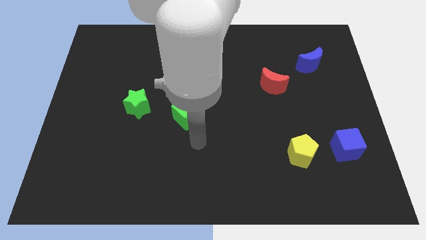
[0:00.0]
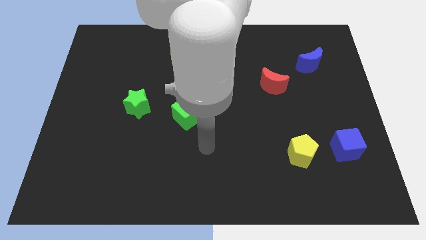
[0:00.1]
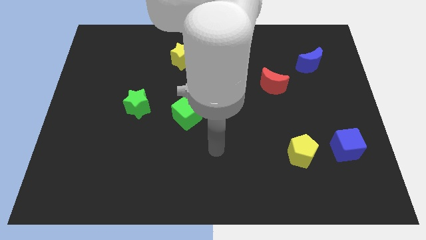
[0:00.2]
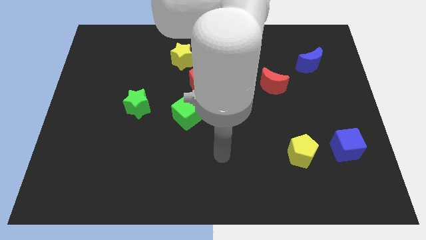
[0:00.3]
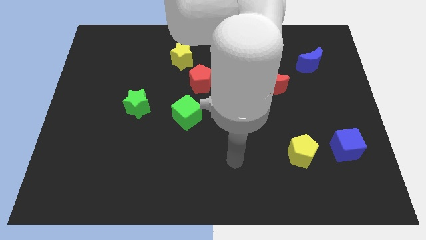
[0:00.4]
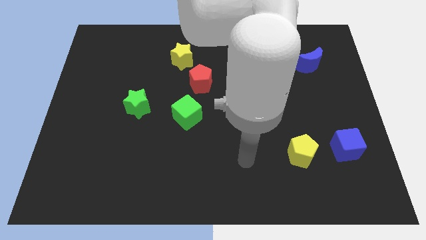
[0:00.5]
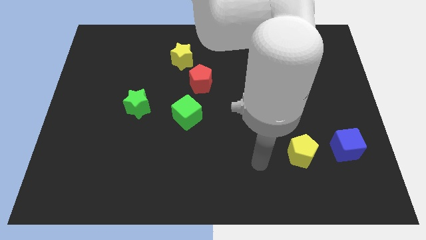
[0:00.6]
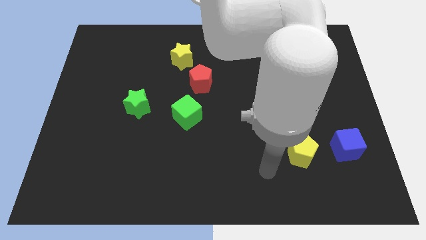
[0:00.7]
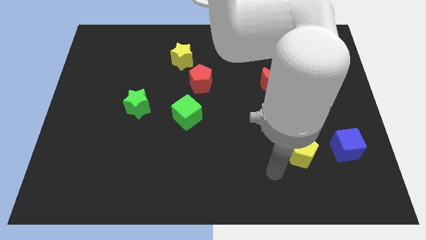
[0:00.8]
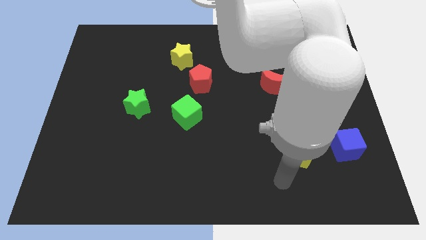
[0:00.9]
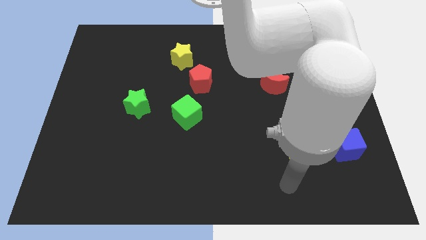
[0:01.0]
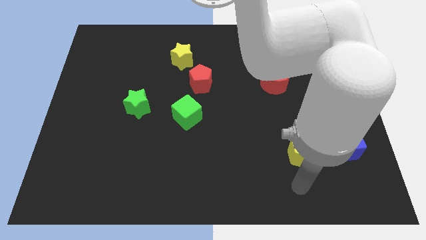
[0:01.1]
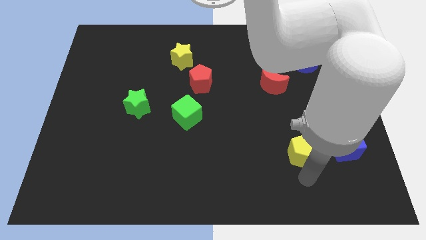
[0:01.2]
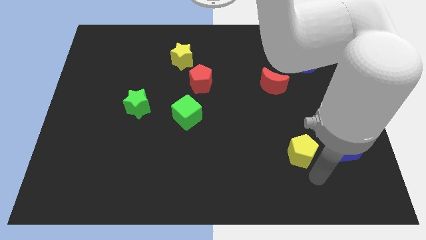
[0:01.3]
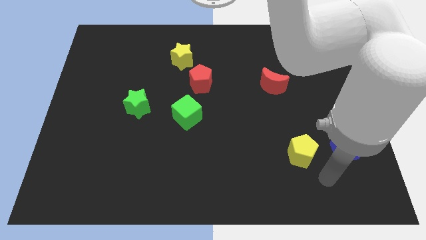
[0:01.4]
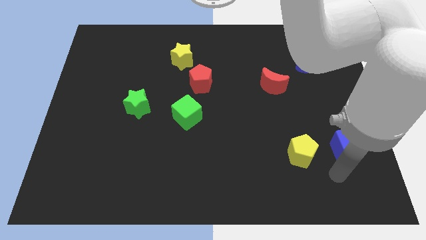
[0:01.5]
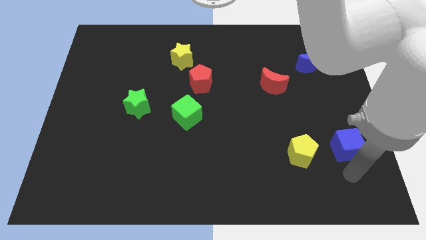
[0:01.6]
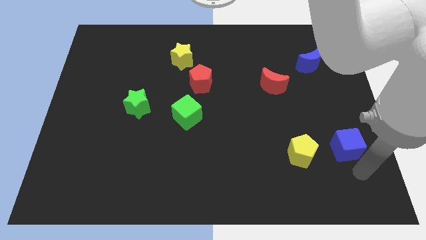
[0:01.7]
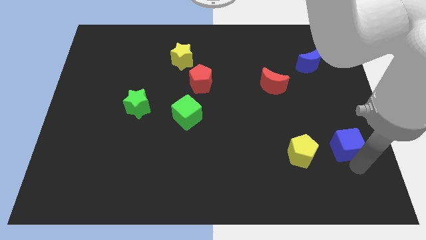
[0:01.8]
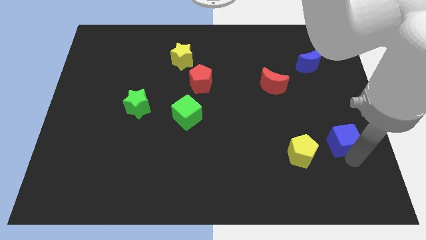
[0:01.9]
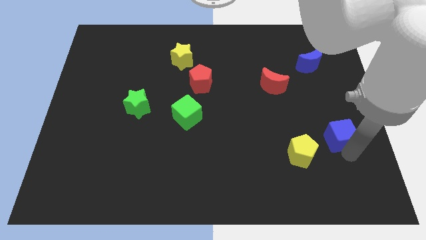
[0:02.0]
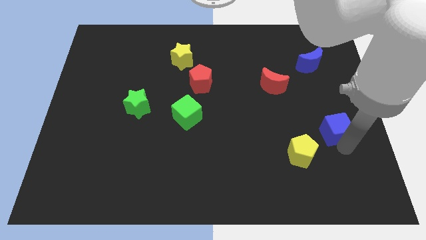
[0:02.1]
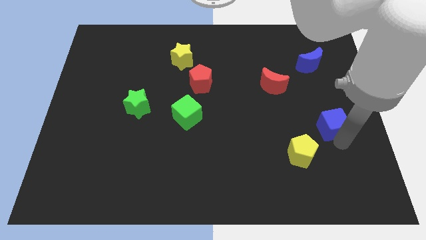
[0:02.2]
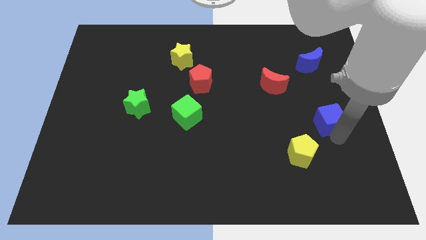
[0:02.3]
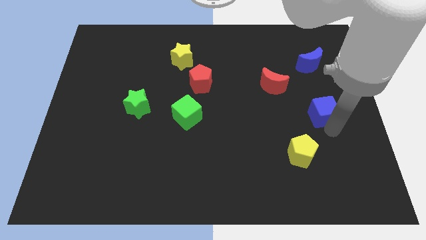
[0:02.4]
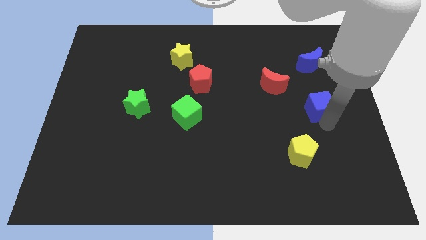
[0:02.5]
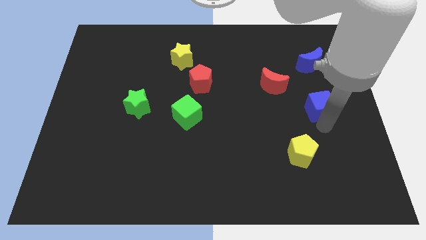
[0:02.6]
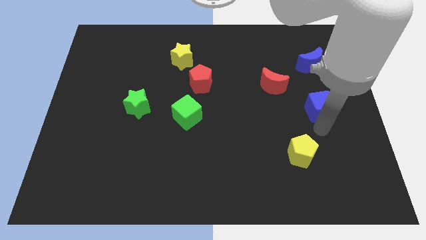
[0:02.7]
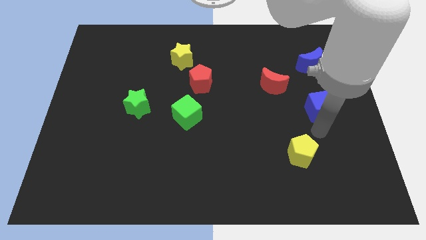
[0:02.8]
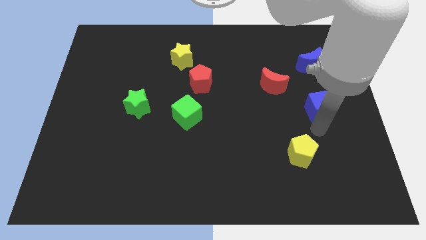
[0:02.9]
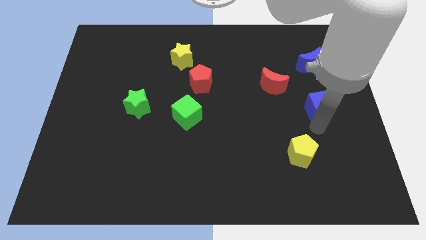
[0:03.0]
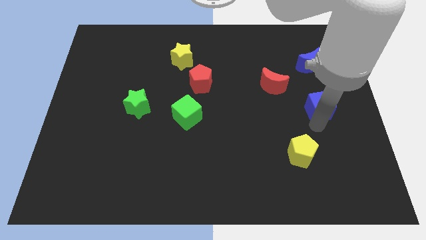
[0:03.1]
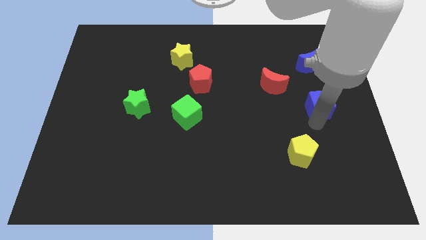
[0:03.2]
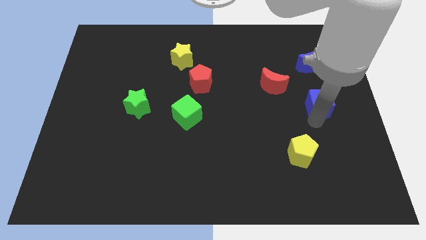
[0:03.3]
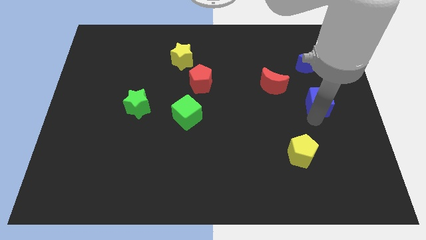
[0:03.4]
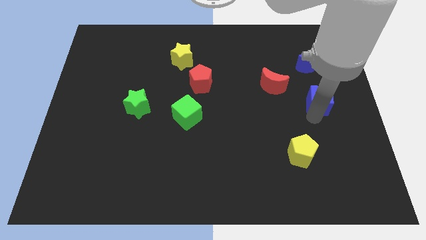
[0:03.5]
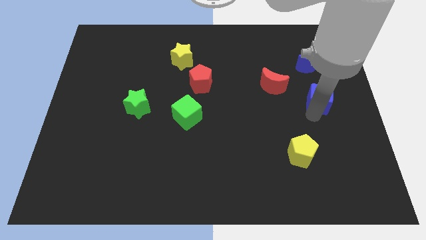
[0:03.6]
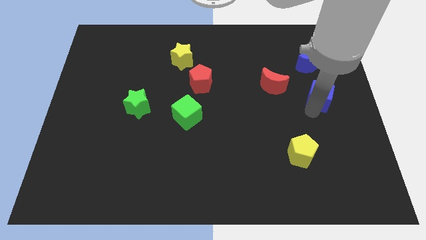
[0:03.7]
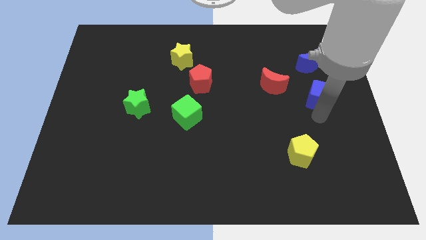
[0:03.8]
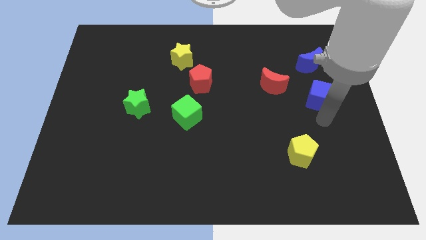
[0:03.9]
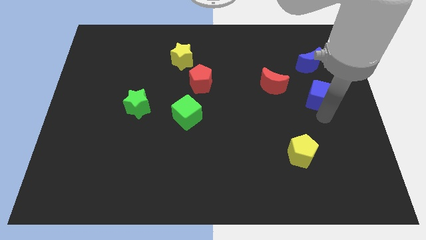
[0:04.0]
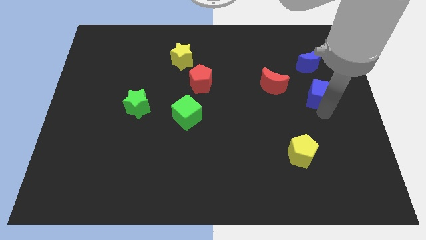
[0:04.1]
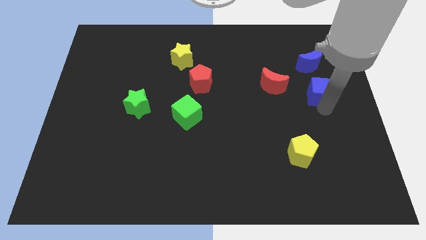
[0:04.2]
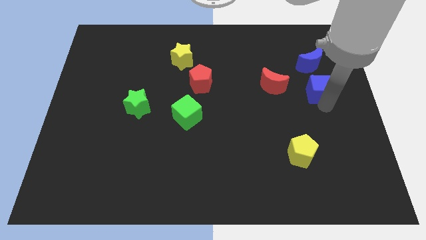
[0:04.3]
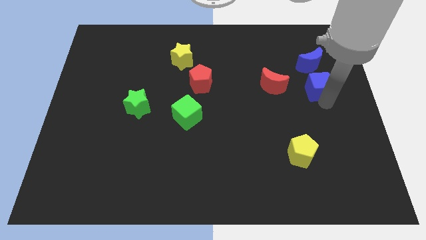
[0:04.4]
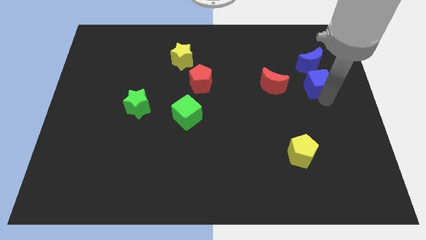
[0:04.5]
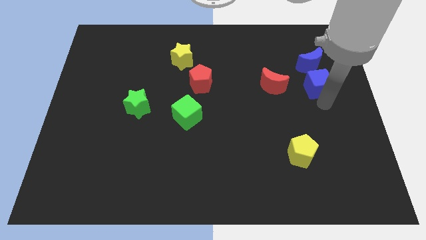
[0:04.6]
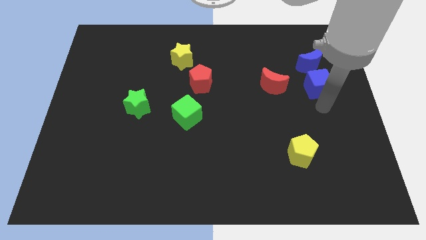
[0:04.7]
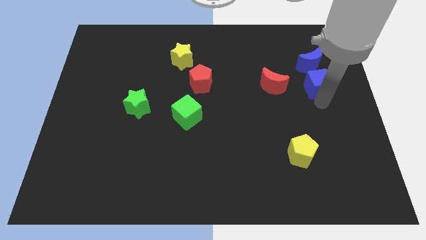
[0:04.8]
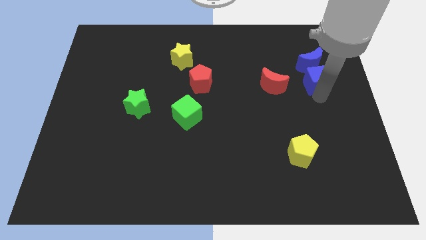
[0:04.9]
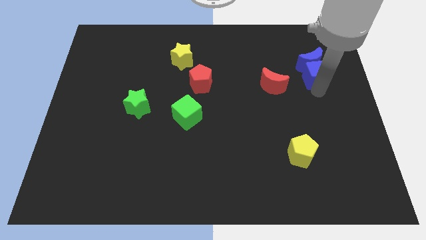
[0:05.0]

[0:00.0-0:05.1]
move the blue cube towards the blue moon

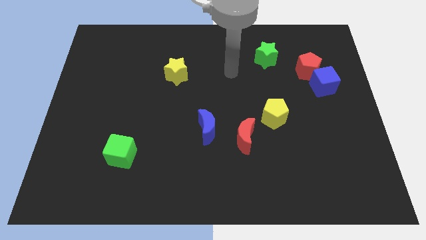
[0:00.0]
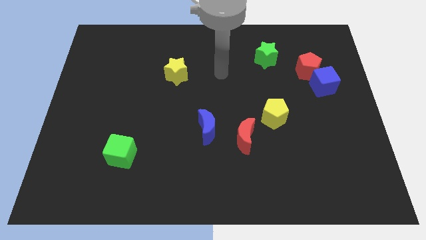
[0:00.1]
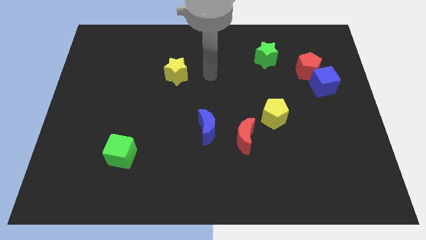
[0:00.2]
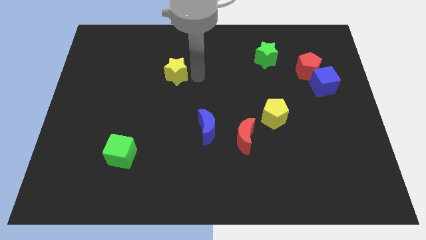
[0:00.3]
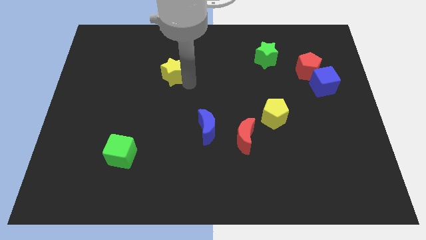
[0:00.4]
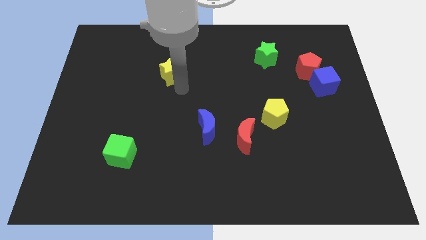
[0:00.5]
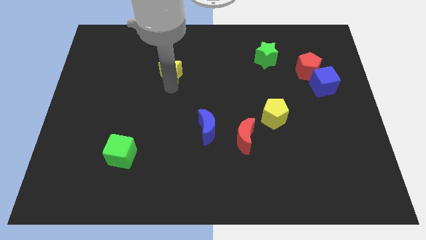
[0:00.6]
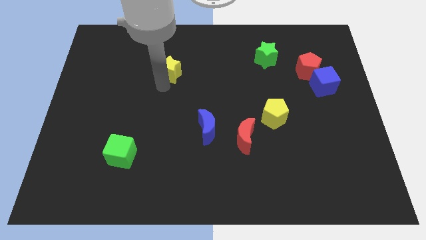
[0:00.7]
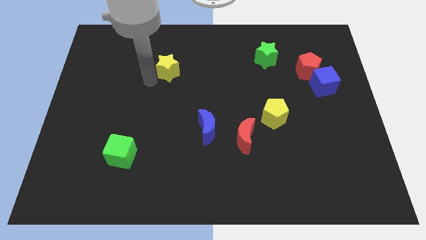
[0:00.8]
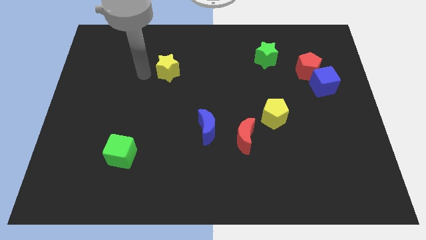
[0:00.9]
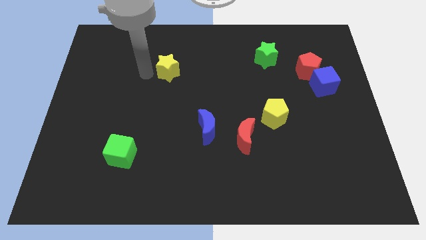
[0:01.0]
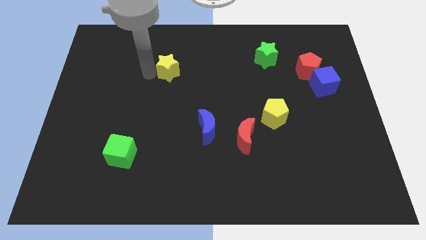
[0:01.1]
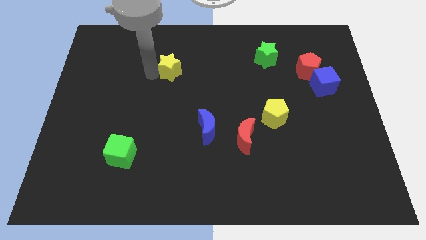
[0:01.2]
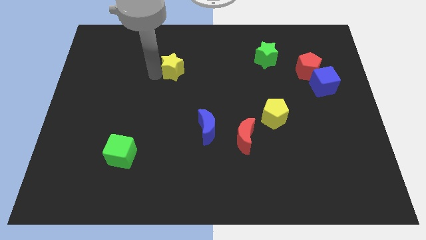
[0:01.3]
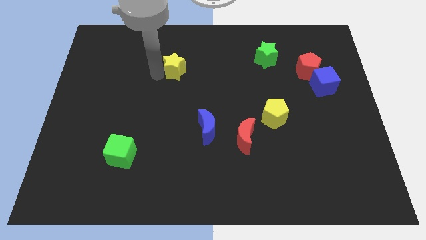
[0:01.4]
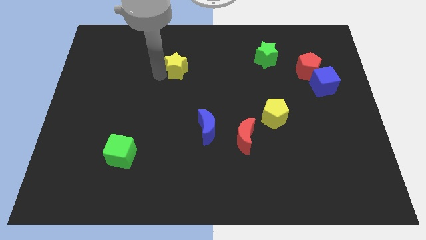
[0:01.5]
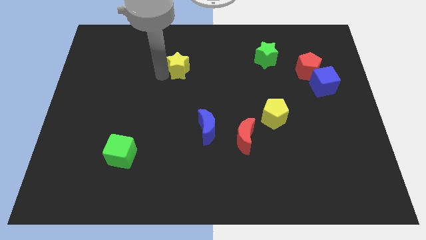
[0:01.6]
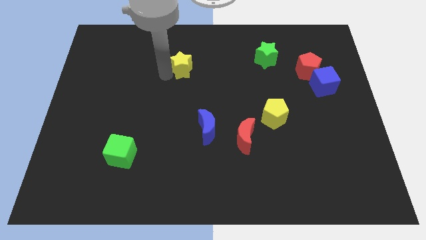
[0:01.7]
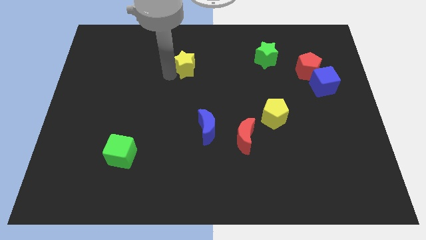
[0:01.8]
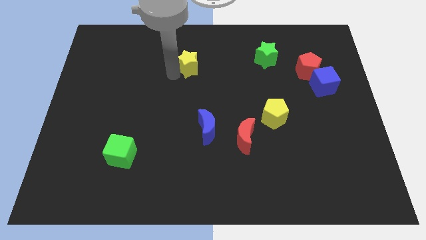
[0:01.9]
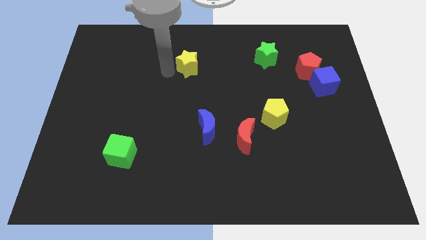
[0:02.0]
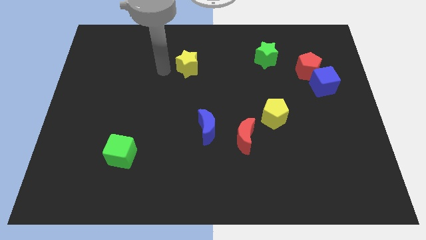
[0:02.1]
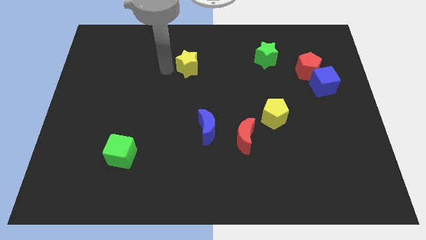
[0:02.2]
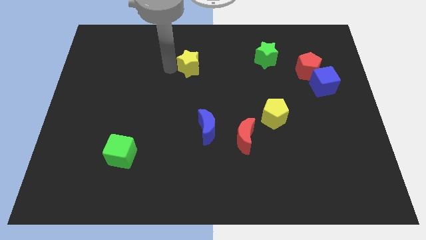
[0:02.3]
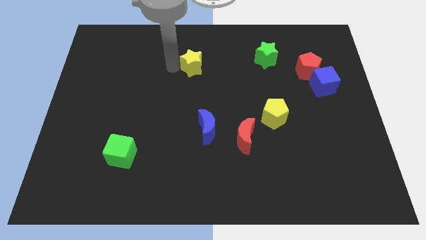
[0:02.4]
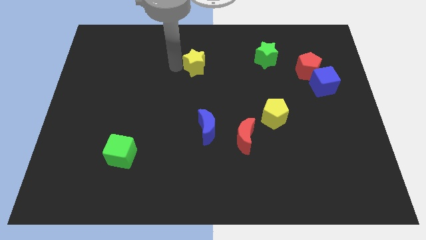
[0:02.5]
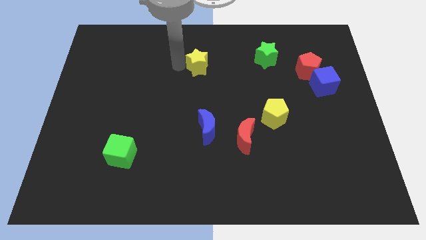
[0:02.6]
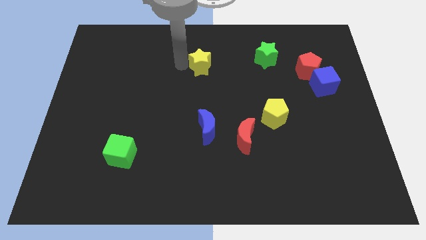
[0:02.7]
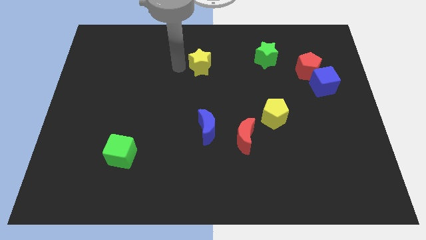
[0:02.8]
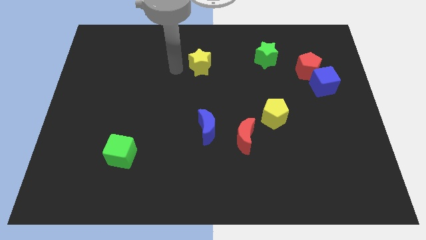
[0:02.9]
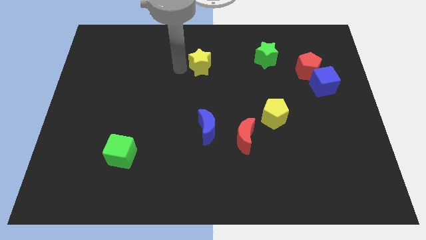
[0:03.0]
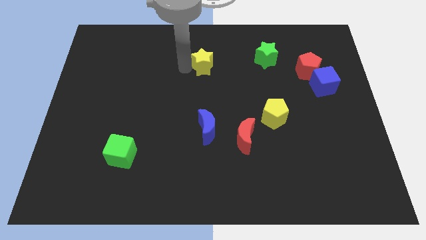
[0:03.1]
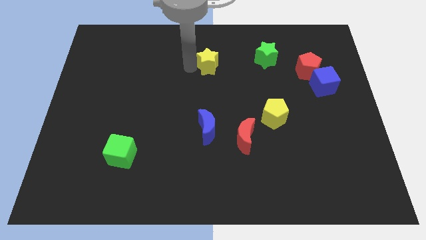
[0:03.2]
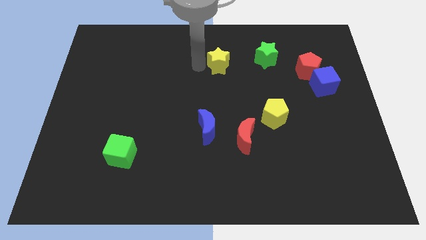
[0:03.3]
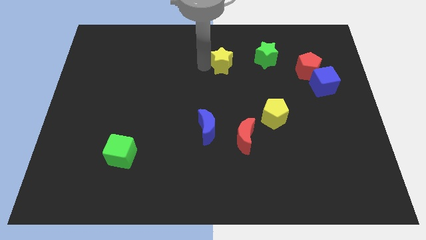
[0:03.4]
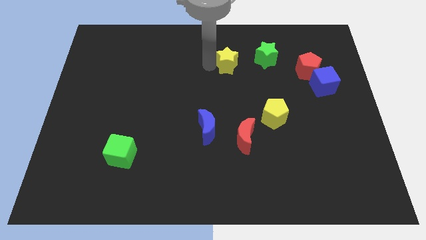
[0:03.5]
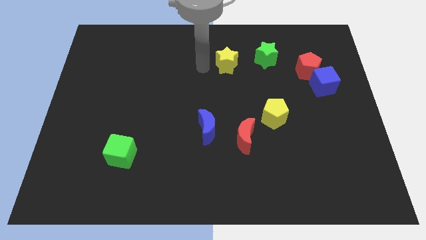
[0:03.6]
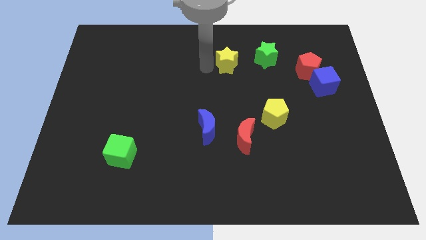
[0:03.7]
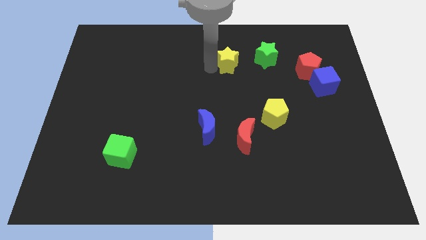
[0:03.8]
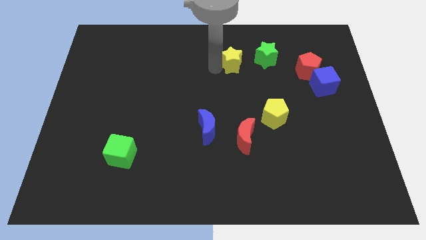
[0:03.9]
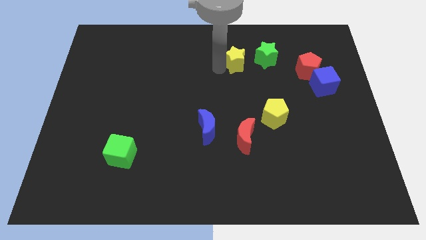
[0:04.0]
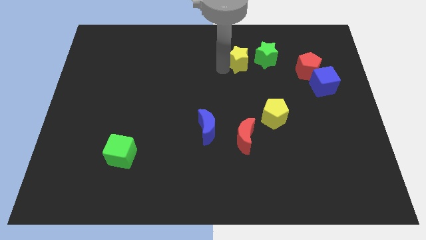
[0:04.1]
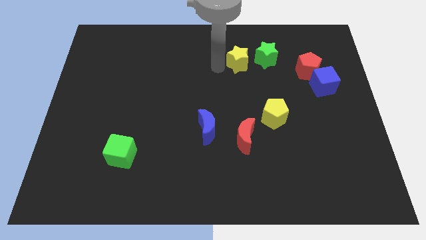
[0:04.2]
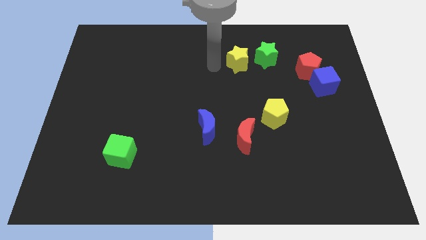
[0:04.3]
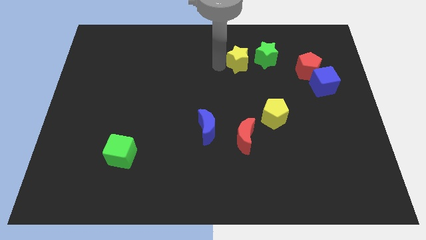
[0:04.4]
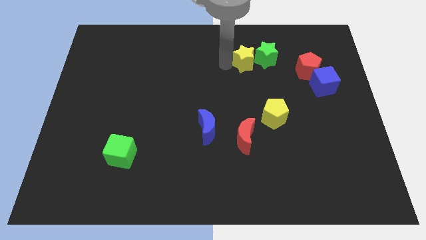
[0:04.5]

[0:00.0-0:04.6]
move the yellow star towards the green star
